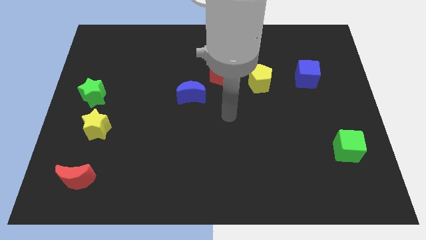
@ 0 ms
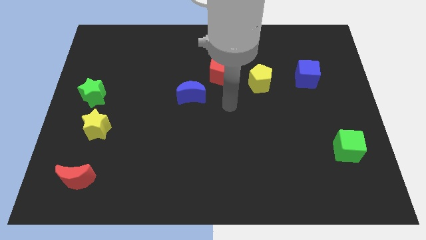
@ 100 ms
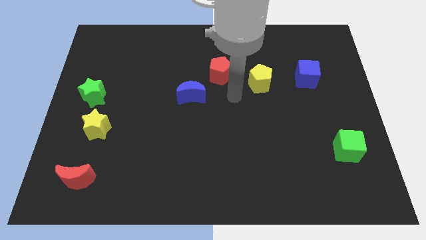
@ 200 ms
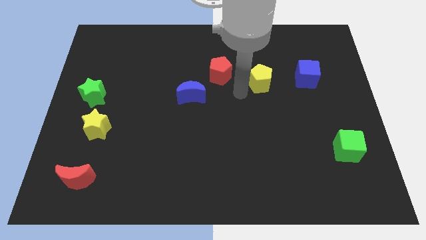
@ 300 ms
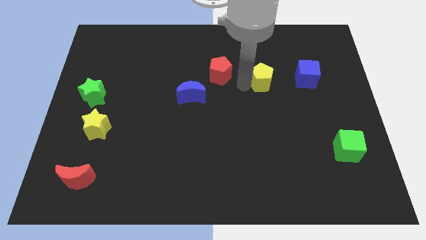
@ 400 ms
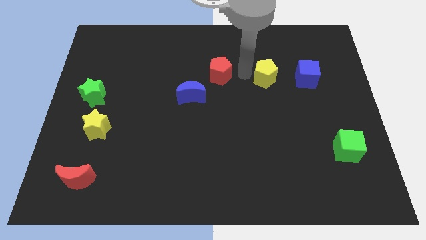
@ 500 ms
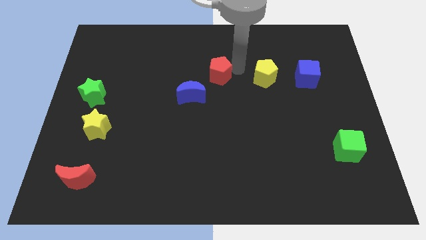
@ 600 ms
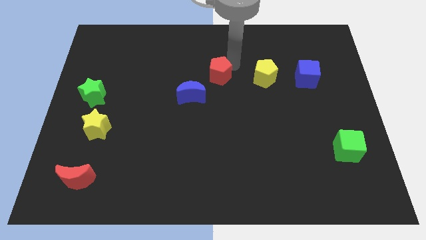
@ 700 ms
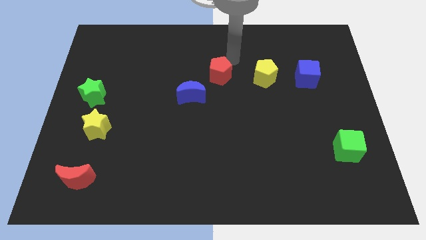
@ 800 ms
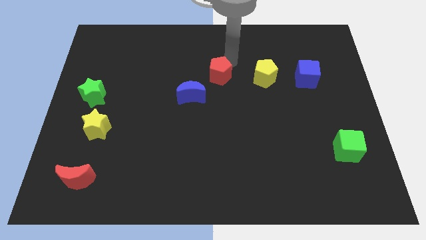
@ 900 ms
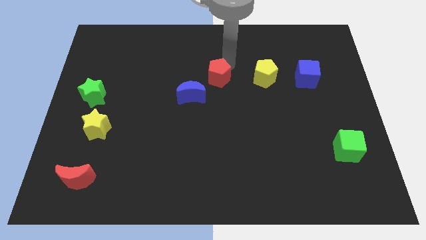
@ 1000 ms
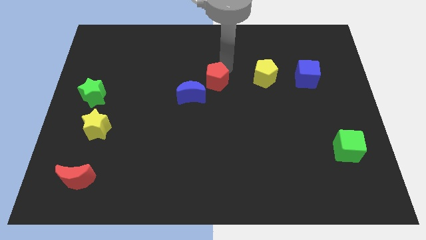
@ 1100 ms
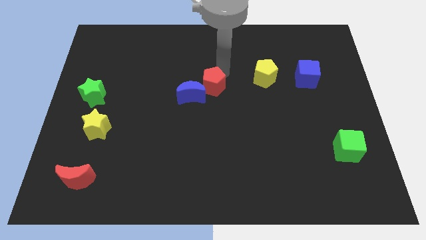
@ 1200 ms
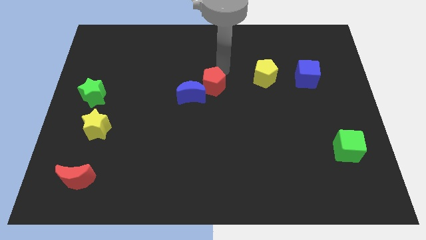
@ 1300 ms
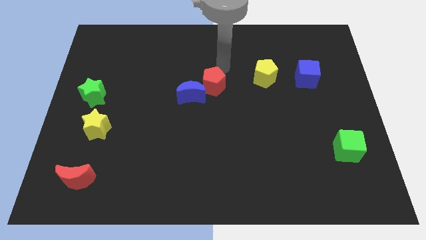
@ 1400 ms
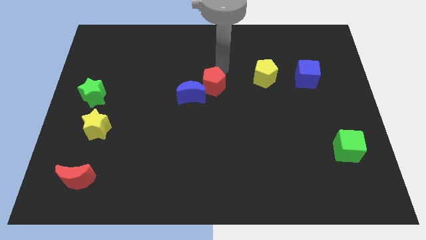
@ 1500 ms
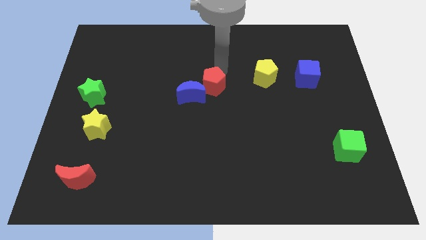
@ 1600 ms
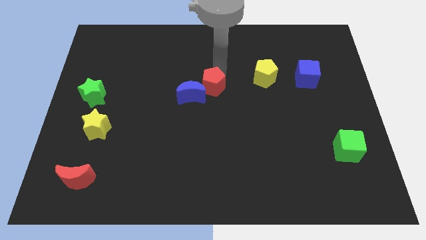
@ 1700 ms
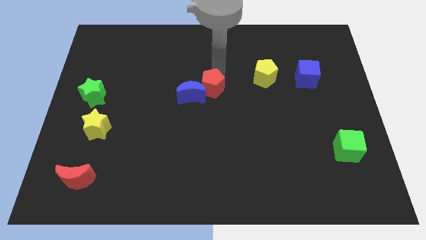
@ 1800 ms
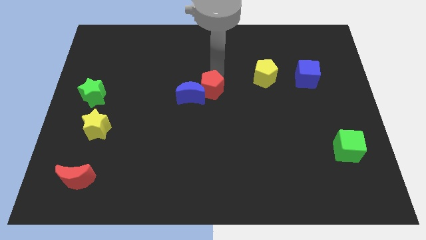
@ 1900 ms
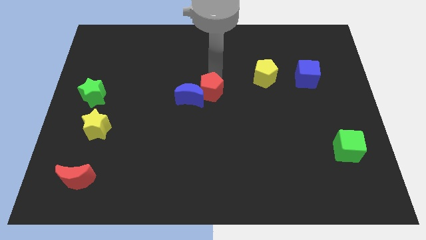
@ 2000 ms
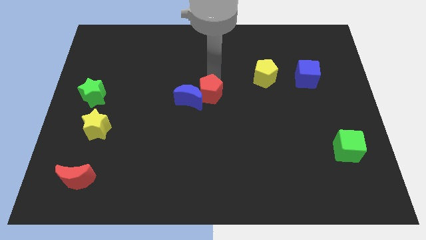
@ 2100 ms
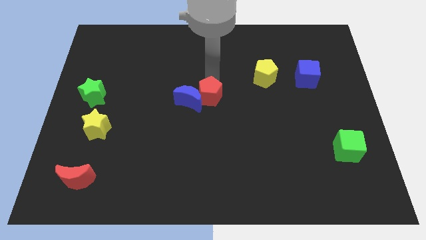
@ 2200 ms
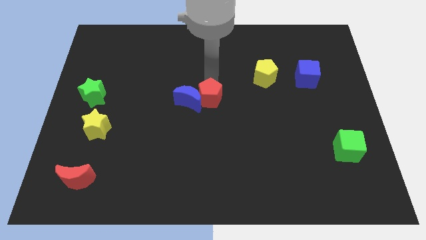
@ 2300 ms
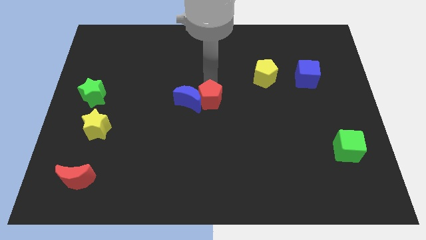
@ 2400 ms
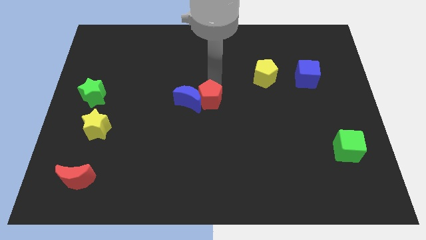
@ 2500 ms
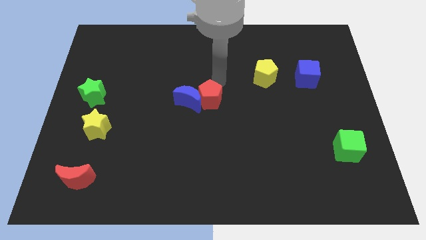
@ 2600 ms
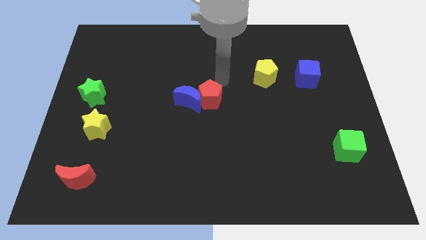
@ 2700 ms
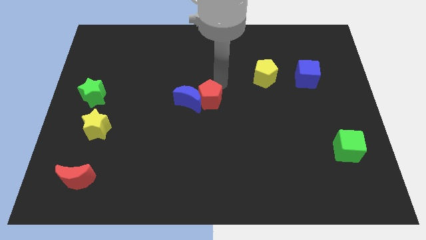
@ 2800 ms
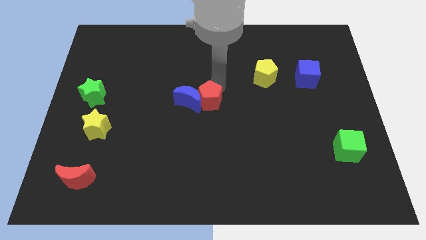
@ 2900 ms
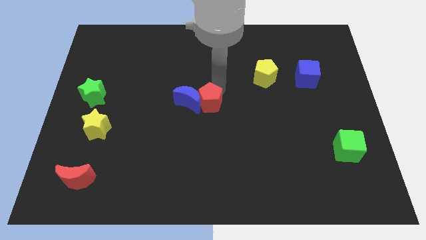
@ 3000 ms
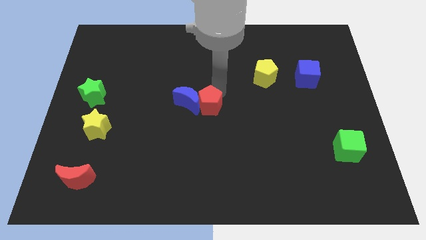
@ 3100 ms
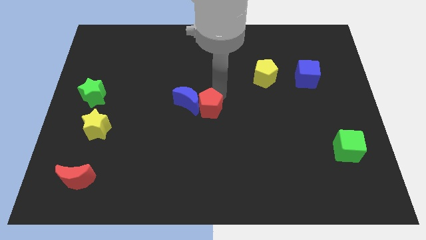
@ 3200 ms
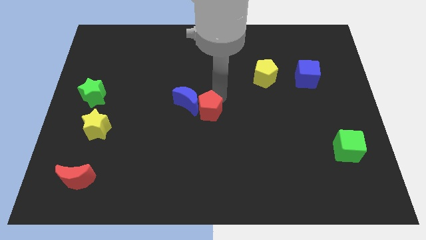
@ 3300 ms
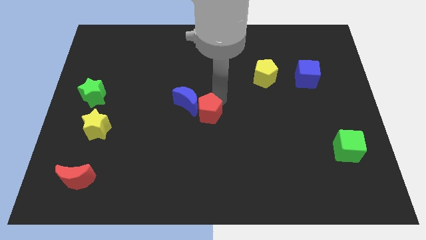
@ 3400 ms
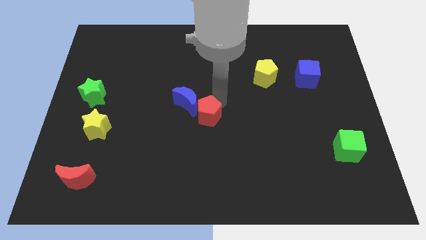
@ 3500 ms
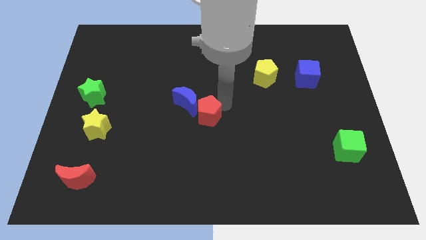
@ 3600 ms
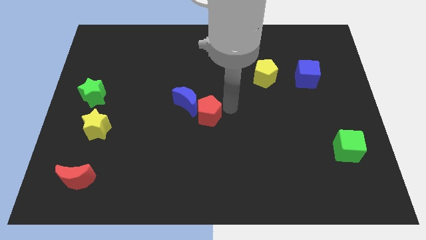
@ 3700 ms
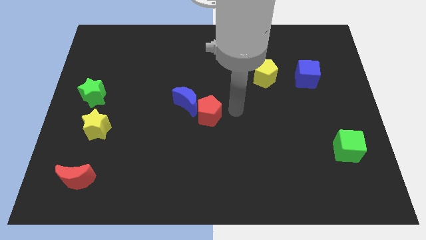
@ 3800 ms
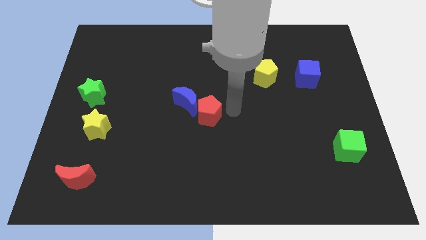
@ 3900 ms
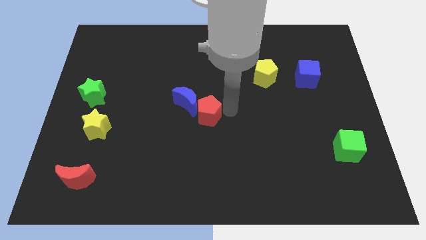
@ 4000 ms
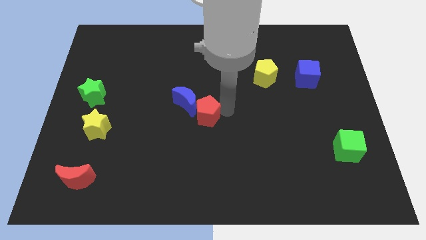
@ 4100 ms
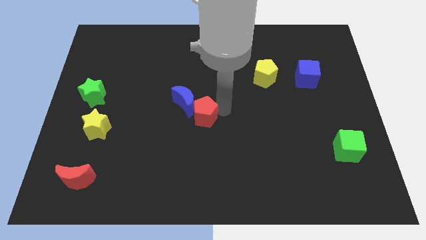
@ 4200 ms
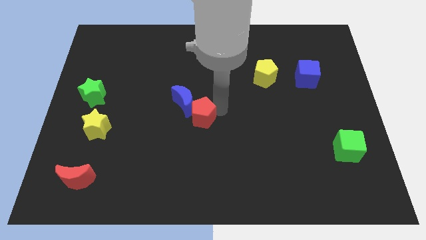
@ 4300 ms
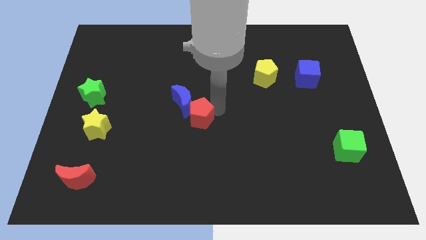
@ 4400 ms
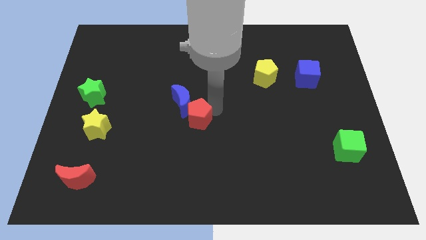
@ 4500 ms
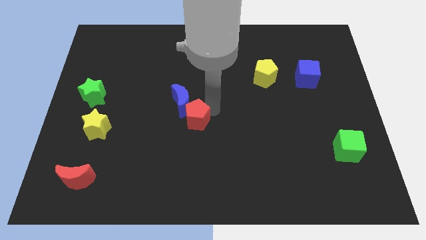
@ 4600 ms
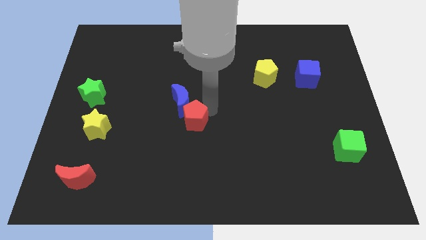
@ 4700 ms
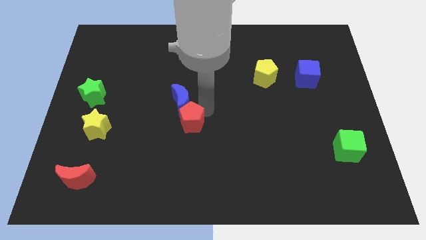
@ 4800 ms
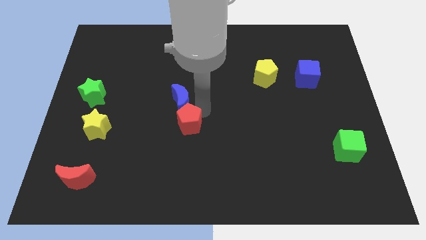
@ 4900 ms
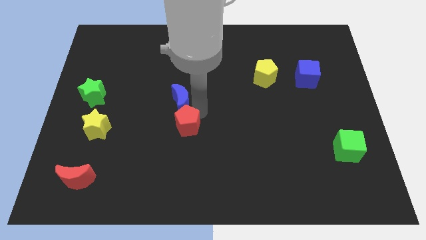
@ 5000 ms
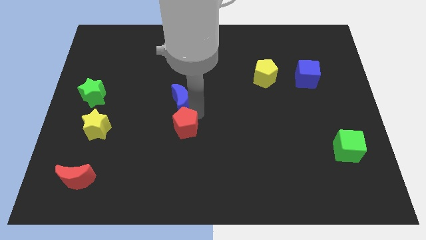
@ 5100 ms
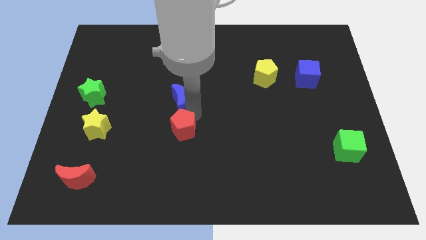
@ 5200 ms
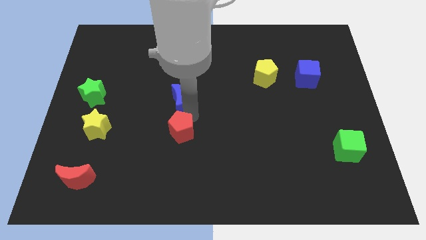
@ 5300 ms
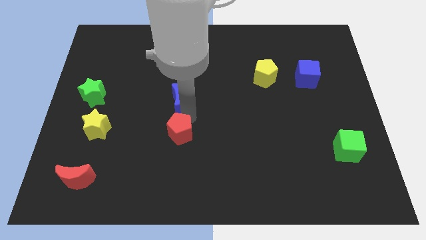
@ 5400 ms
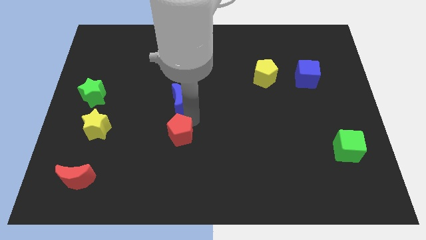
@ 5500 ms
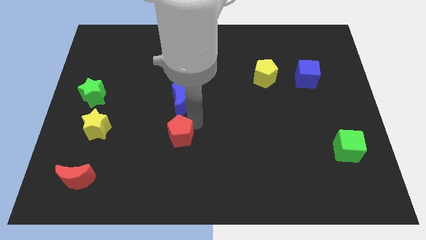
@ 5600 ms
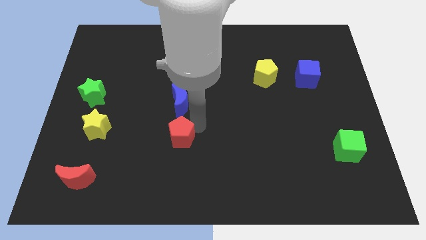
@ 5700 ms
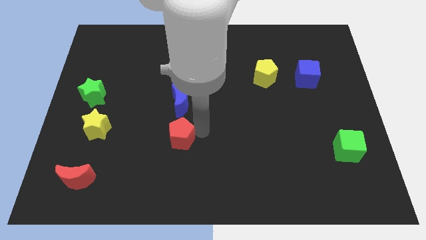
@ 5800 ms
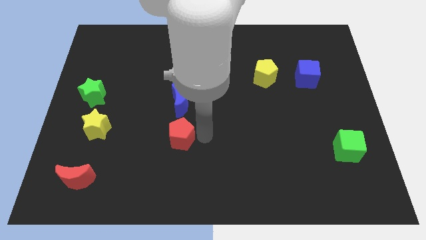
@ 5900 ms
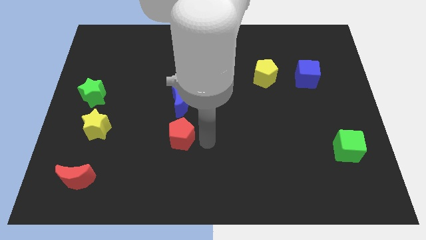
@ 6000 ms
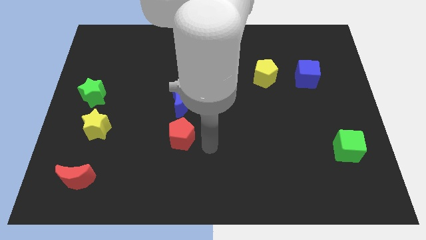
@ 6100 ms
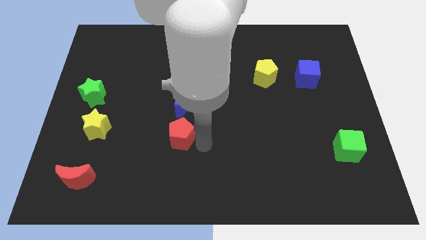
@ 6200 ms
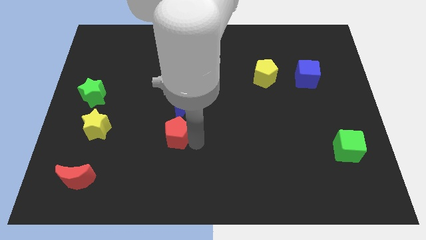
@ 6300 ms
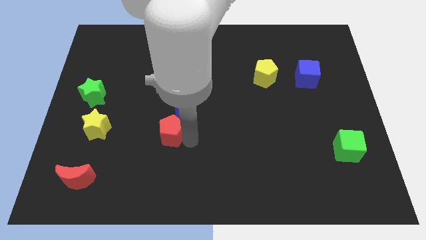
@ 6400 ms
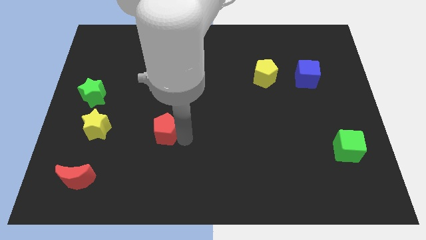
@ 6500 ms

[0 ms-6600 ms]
move the red pentagon diagonally downwards and to the left

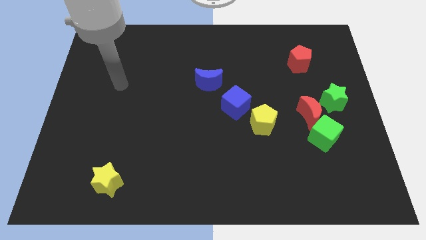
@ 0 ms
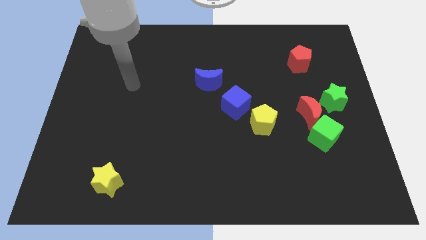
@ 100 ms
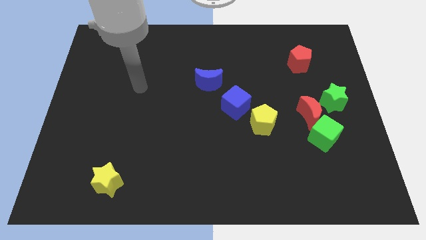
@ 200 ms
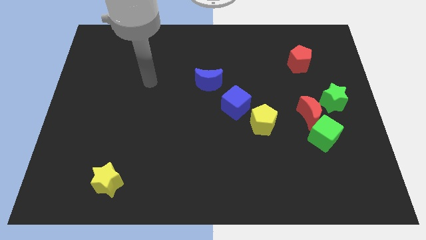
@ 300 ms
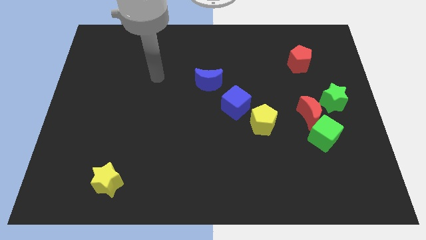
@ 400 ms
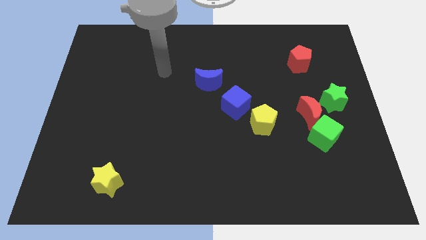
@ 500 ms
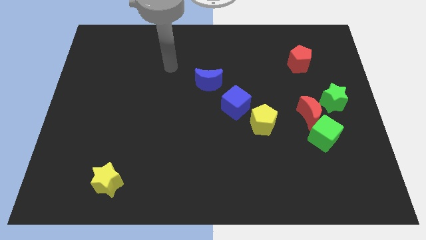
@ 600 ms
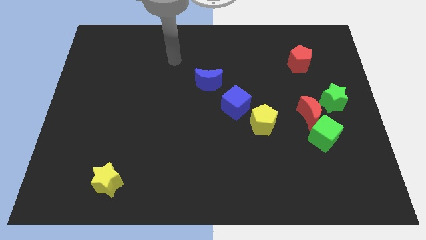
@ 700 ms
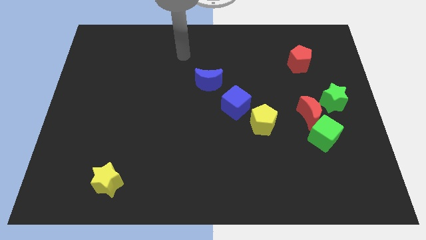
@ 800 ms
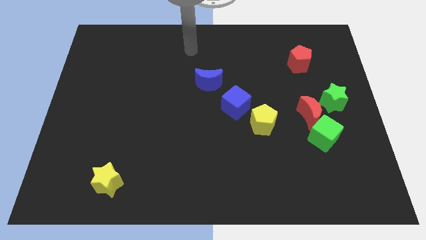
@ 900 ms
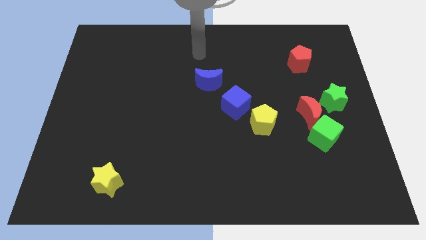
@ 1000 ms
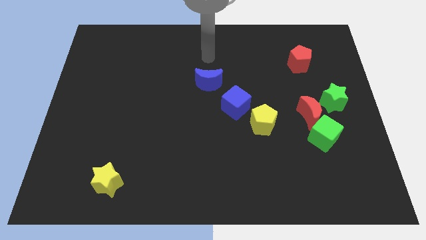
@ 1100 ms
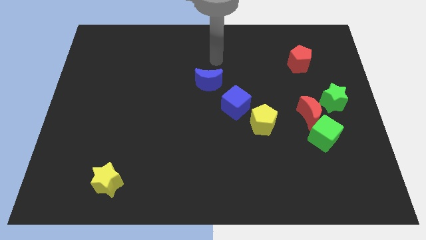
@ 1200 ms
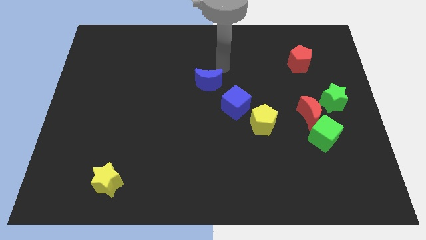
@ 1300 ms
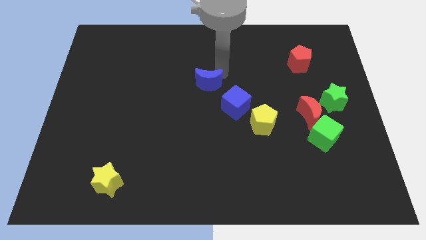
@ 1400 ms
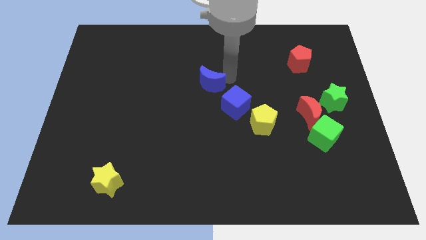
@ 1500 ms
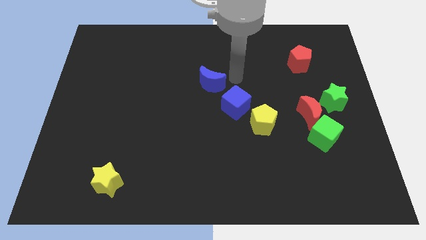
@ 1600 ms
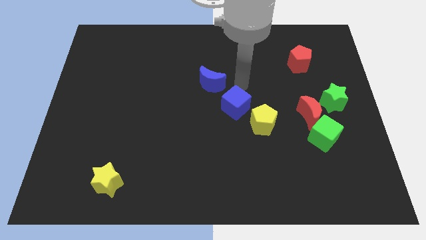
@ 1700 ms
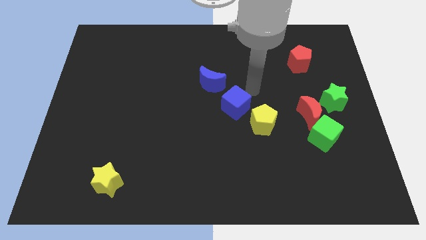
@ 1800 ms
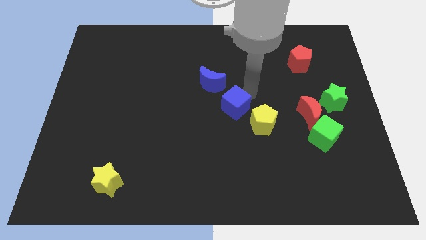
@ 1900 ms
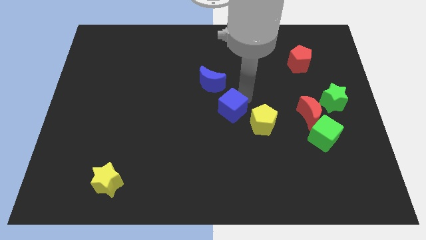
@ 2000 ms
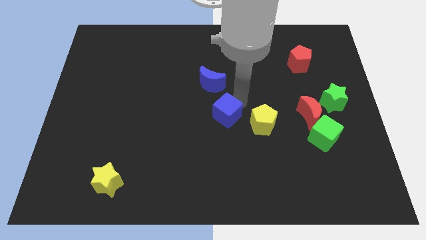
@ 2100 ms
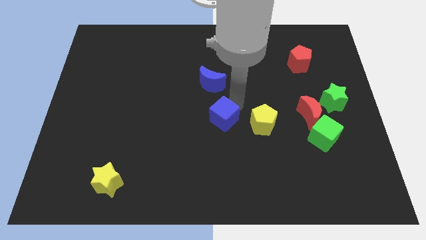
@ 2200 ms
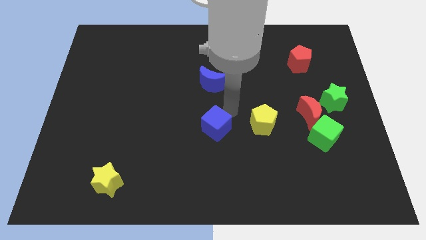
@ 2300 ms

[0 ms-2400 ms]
push the blue cube a bit diagonally downwards and left
